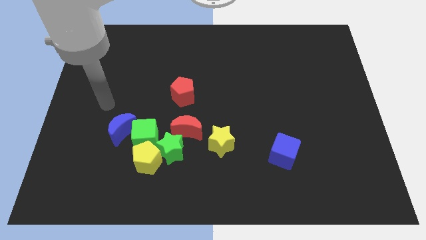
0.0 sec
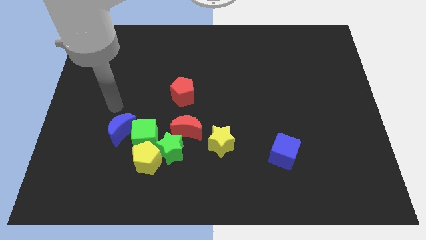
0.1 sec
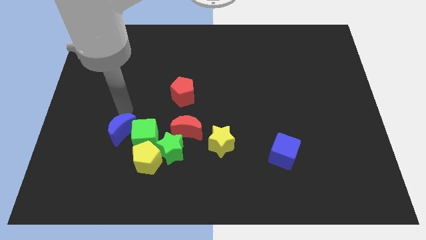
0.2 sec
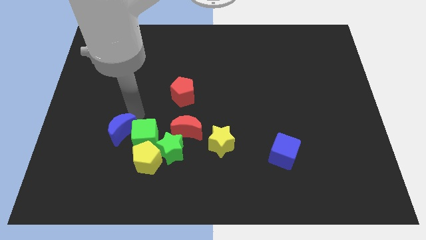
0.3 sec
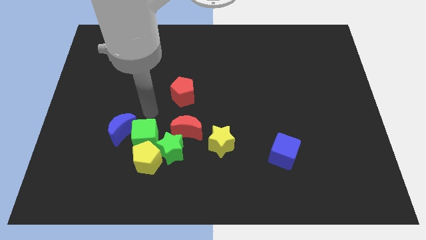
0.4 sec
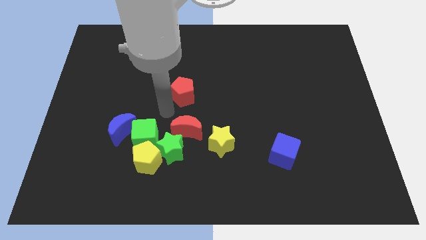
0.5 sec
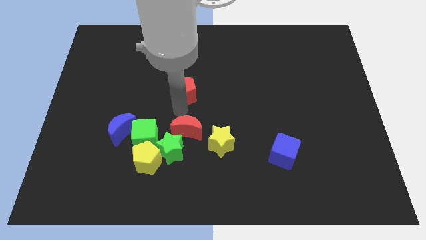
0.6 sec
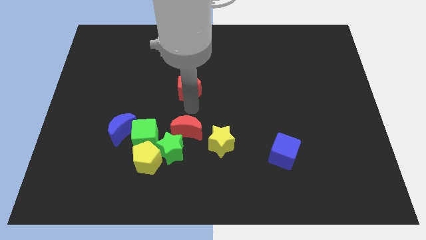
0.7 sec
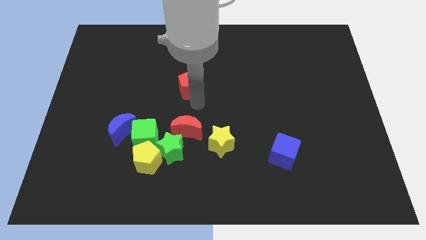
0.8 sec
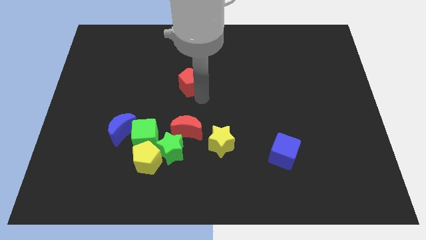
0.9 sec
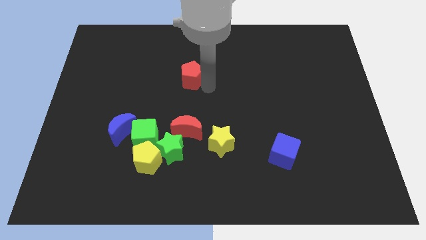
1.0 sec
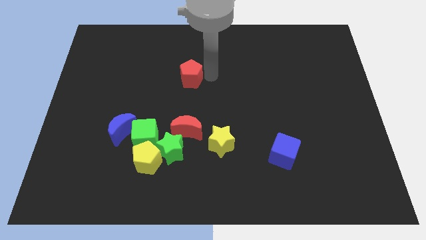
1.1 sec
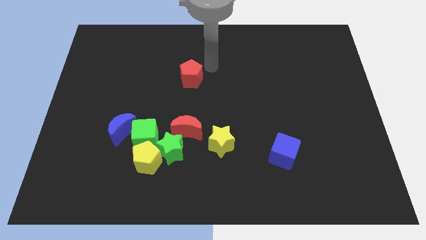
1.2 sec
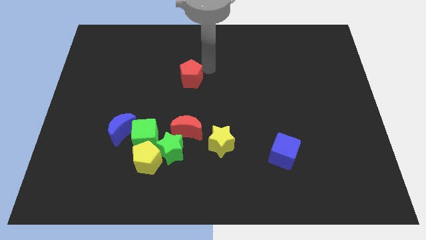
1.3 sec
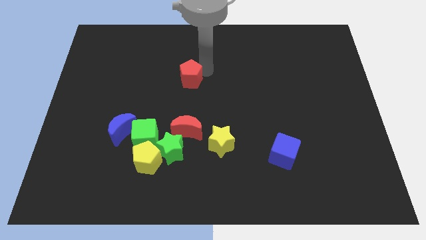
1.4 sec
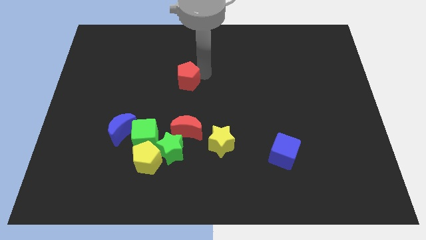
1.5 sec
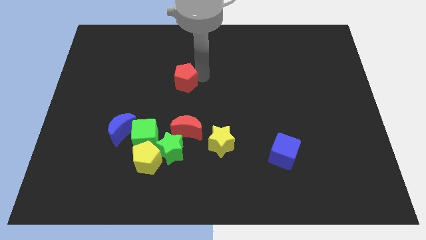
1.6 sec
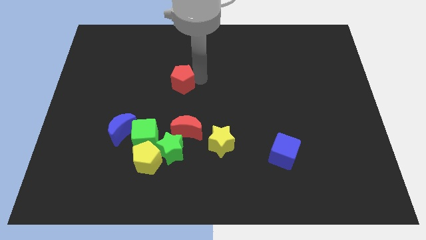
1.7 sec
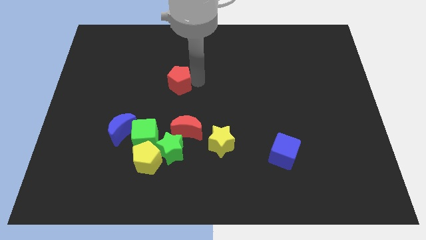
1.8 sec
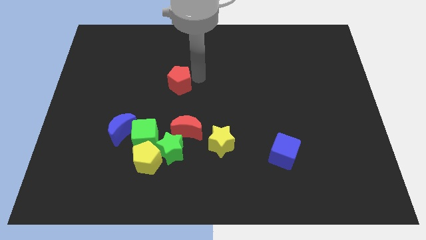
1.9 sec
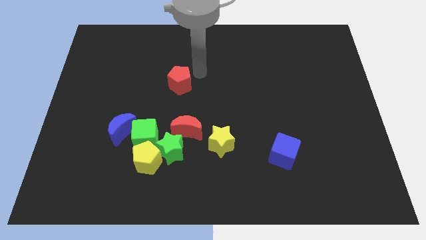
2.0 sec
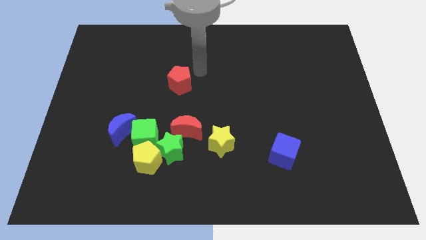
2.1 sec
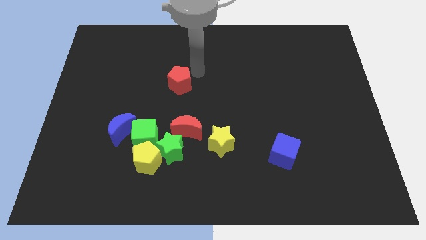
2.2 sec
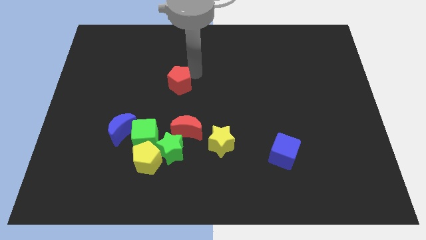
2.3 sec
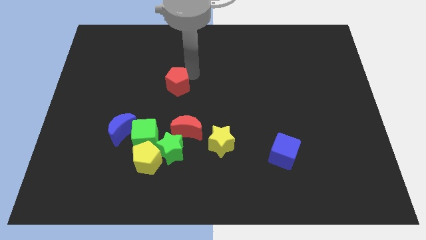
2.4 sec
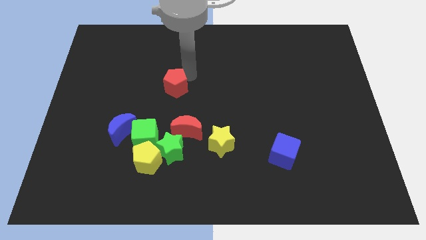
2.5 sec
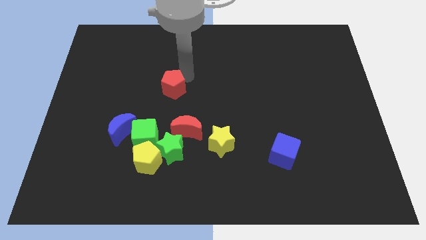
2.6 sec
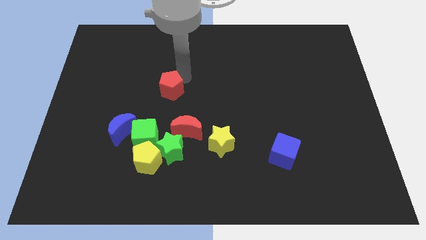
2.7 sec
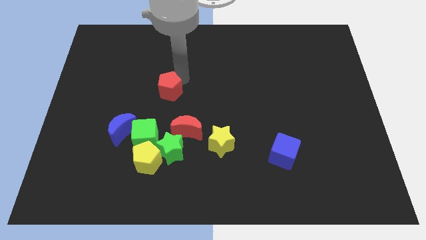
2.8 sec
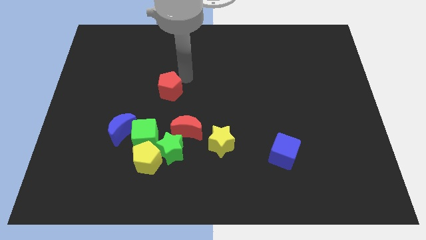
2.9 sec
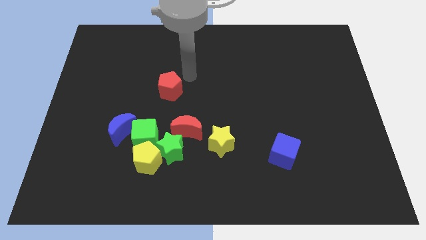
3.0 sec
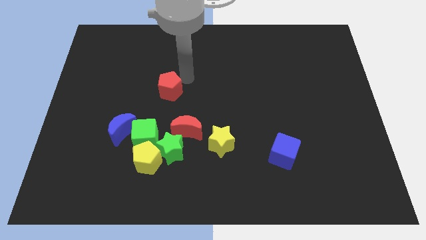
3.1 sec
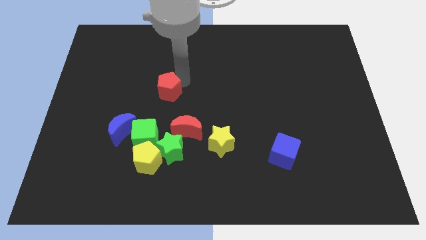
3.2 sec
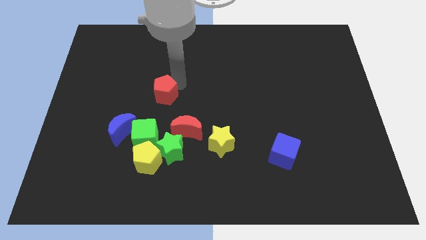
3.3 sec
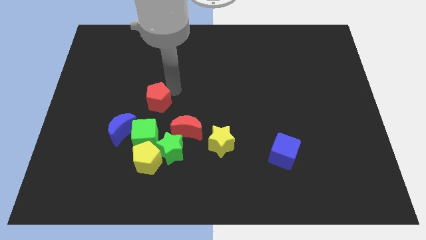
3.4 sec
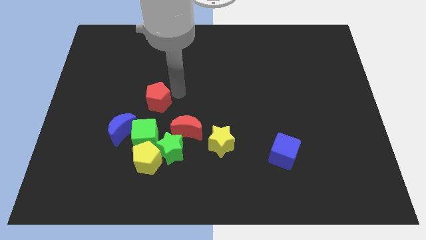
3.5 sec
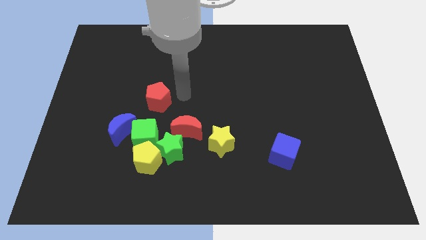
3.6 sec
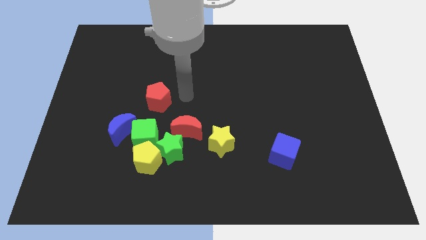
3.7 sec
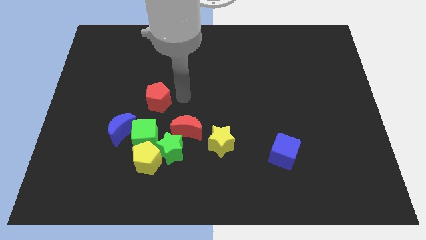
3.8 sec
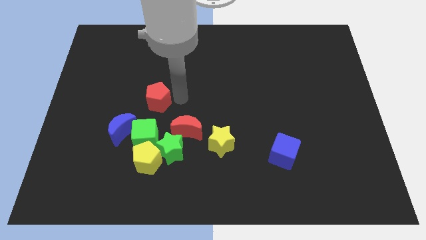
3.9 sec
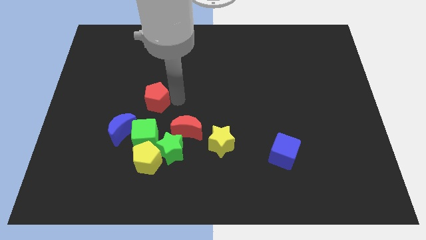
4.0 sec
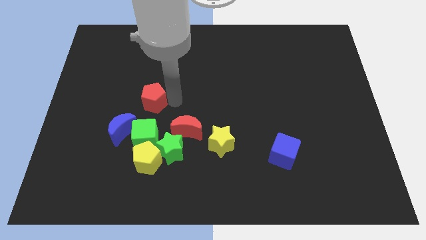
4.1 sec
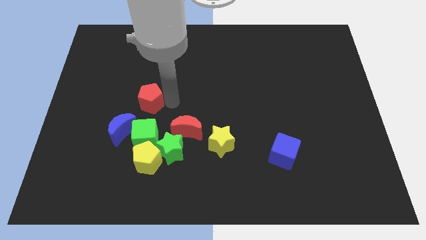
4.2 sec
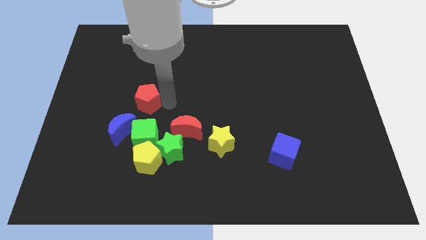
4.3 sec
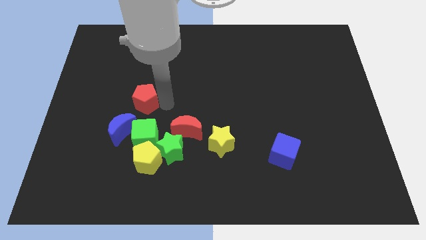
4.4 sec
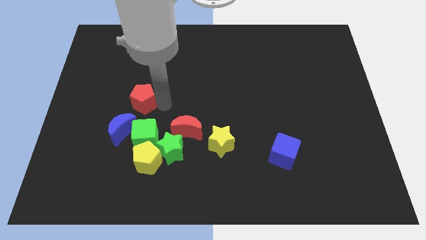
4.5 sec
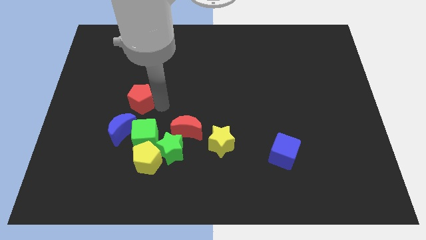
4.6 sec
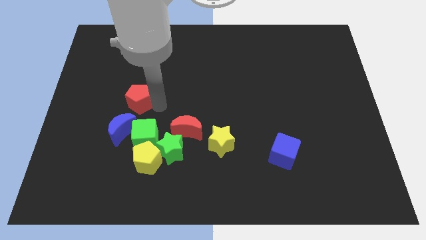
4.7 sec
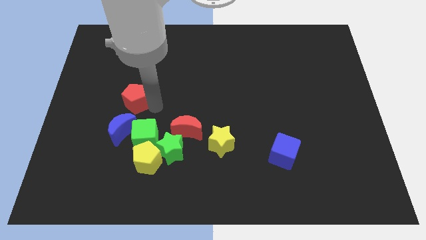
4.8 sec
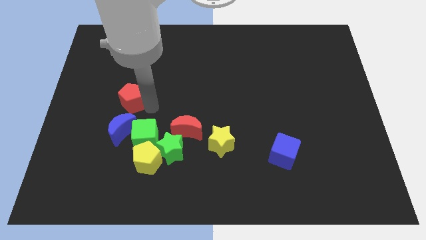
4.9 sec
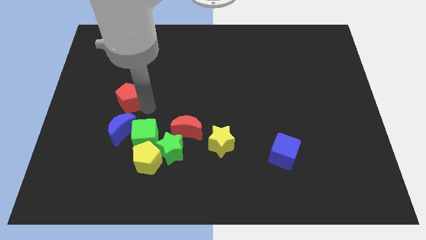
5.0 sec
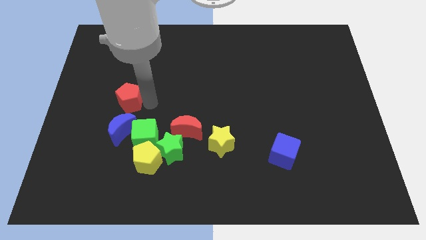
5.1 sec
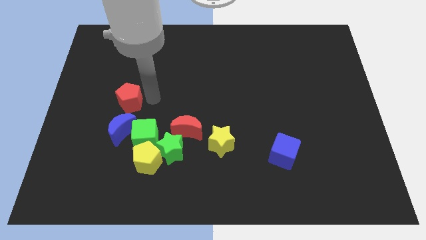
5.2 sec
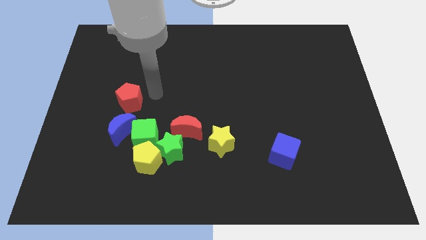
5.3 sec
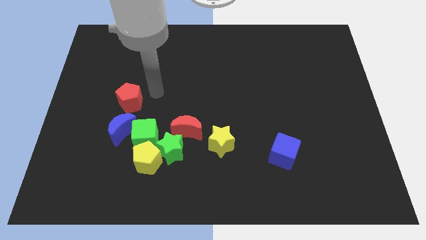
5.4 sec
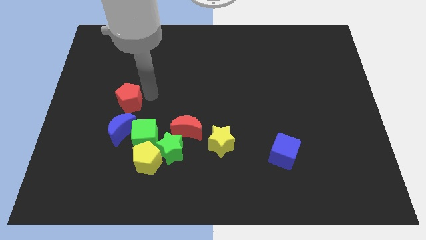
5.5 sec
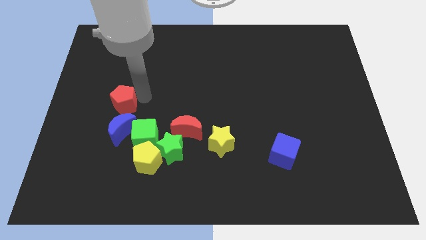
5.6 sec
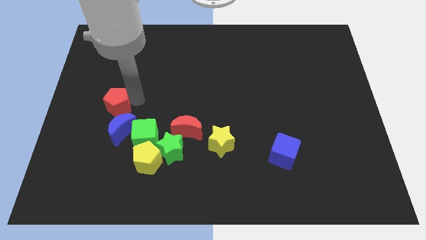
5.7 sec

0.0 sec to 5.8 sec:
push the red pentagon diagonally up and to the left of the blue moon

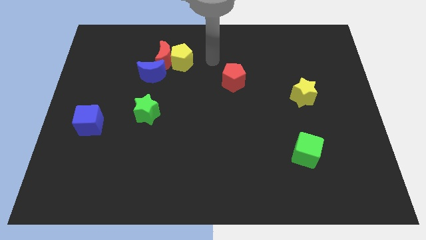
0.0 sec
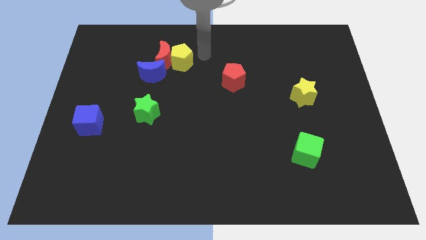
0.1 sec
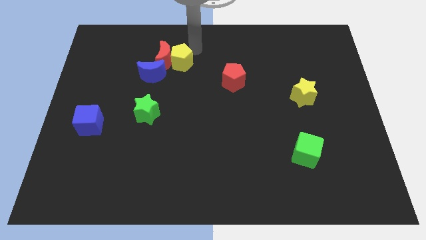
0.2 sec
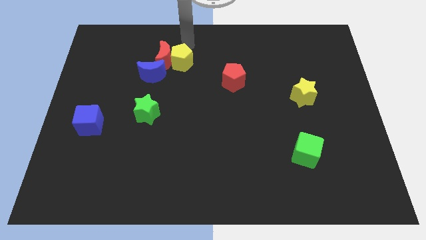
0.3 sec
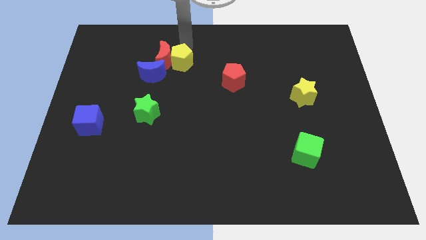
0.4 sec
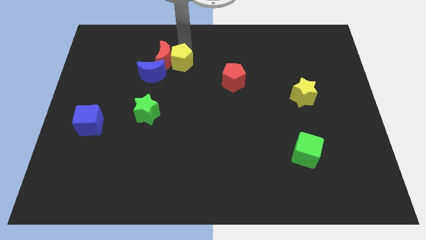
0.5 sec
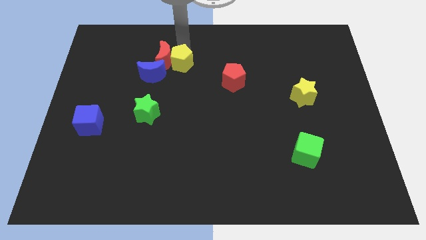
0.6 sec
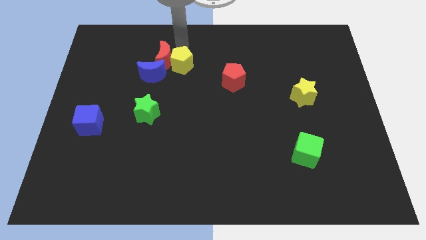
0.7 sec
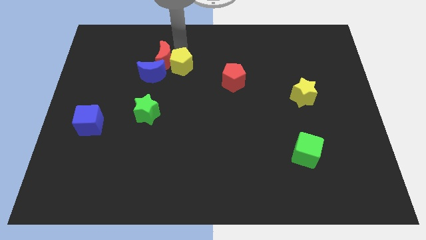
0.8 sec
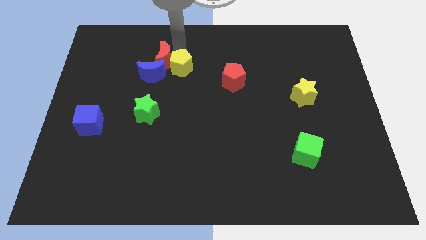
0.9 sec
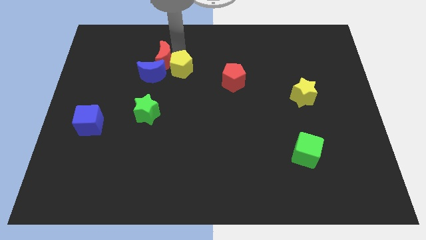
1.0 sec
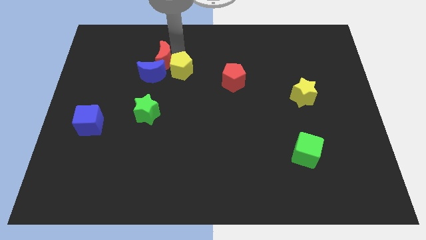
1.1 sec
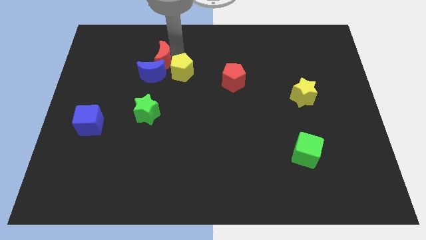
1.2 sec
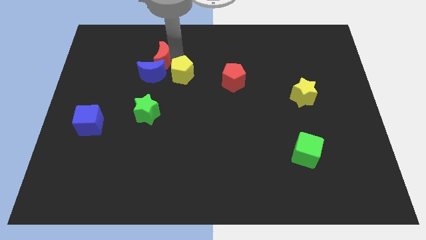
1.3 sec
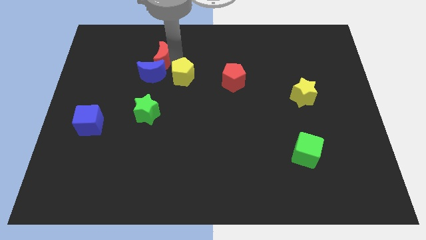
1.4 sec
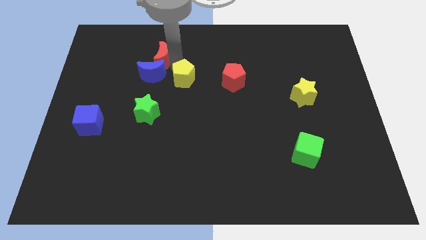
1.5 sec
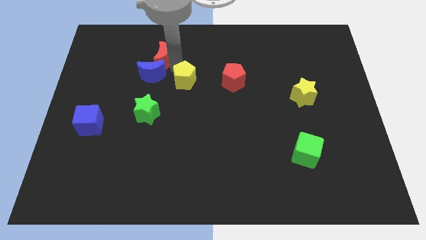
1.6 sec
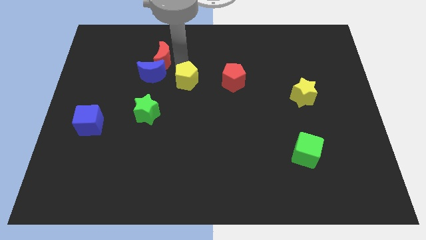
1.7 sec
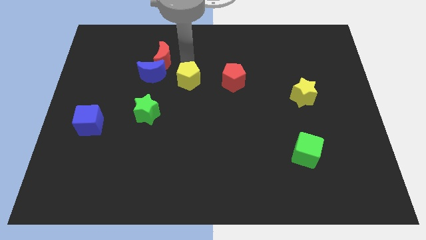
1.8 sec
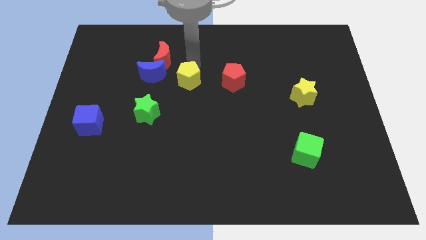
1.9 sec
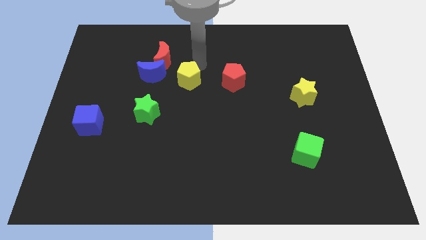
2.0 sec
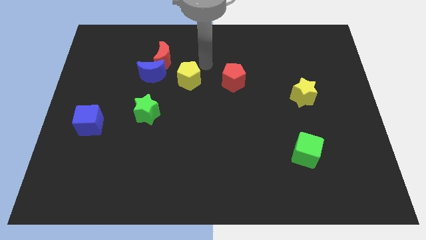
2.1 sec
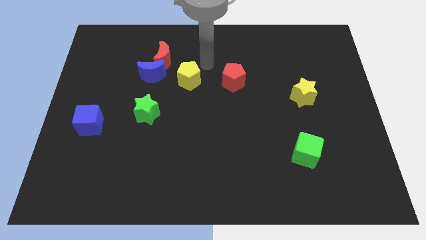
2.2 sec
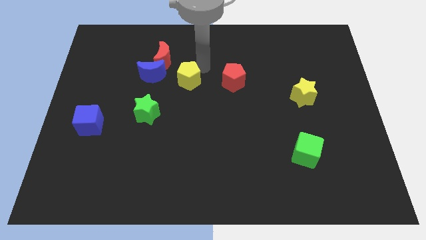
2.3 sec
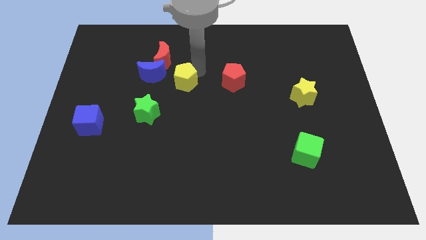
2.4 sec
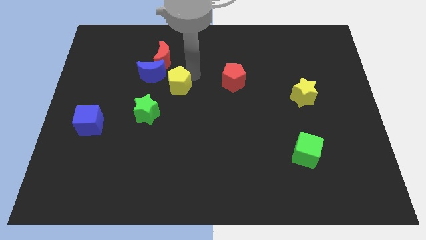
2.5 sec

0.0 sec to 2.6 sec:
slide the yellow pentagon to the top right of the green star
